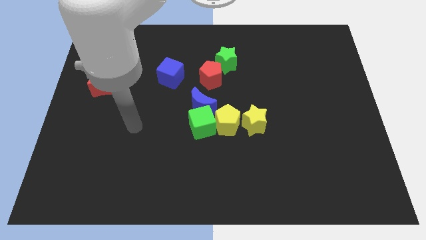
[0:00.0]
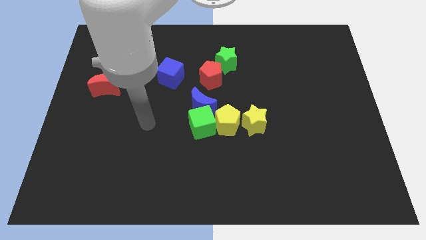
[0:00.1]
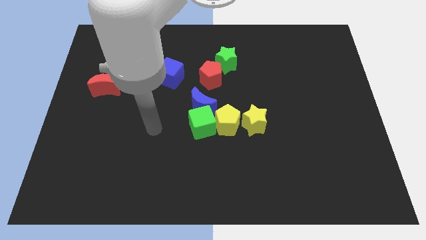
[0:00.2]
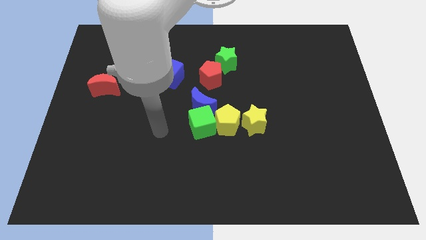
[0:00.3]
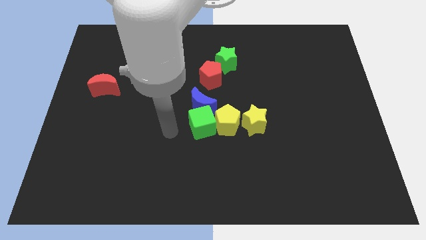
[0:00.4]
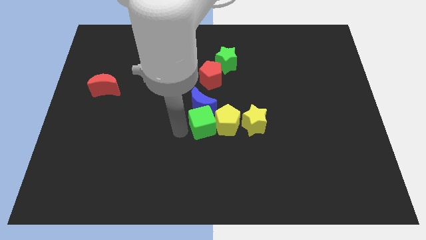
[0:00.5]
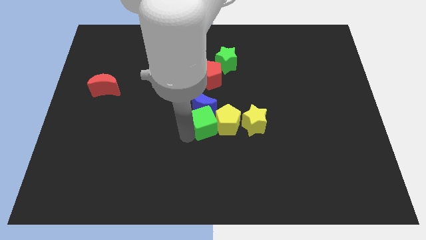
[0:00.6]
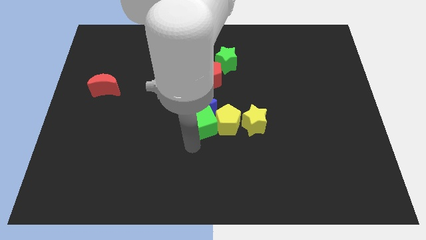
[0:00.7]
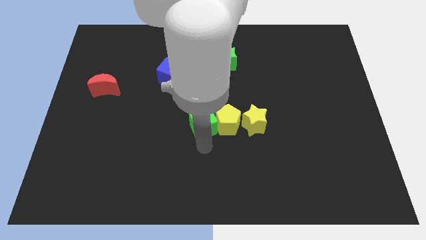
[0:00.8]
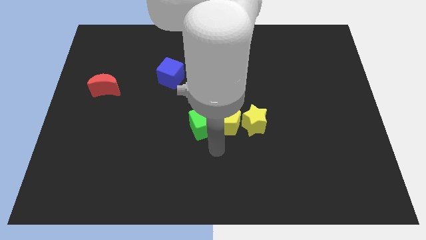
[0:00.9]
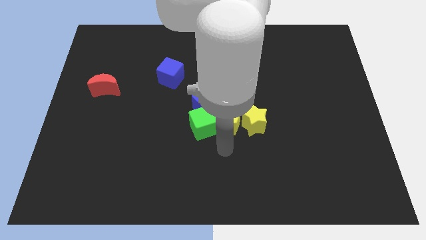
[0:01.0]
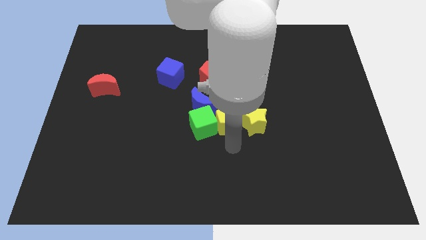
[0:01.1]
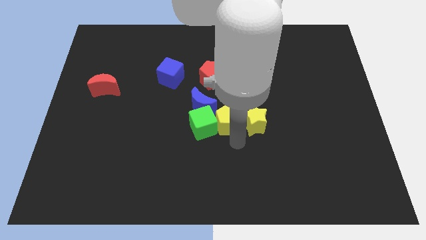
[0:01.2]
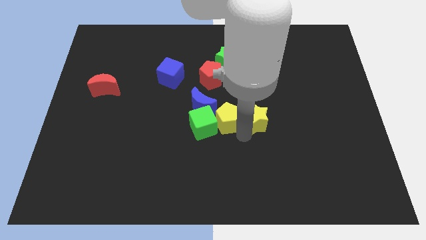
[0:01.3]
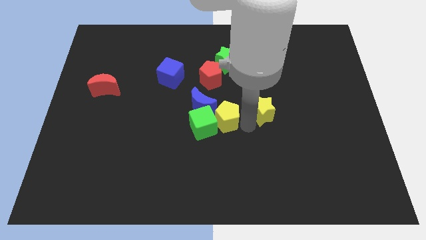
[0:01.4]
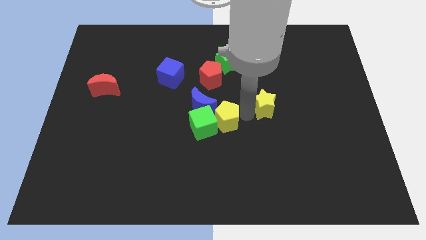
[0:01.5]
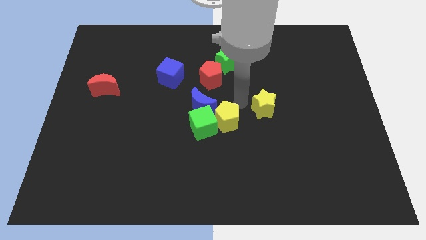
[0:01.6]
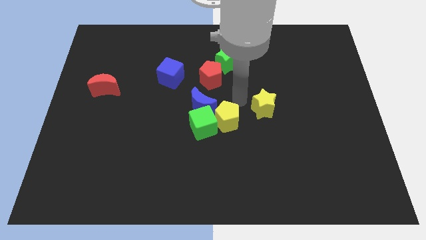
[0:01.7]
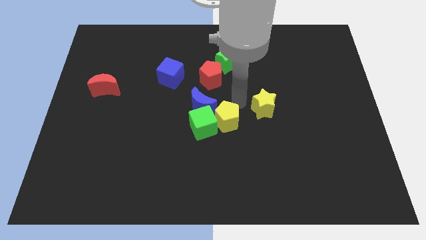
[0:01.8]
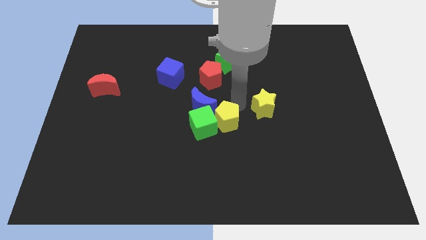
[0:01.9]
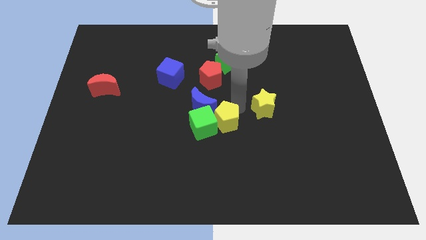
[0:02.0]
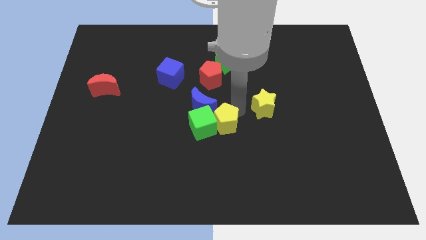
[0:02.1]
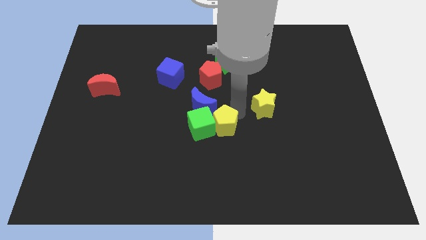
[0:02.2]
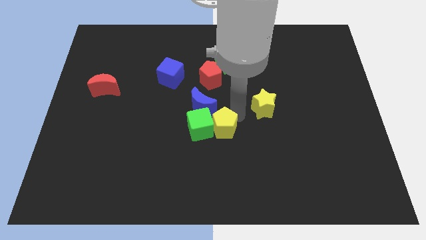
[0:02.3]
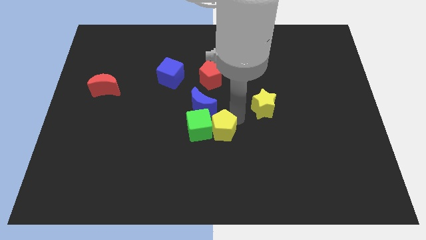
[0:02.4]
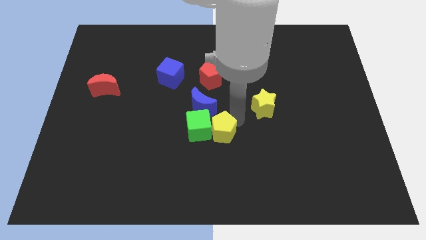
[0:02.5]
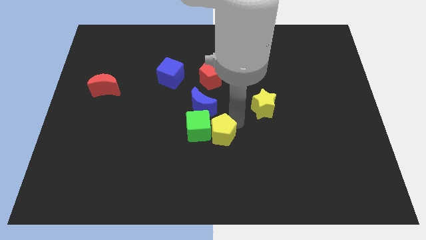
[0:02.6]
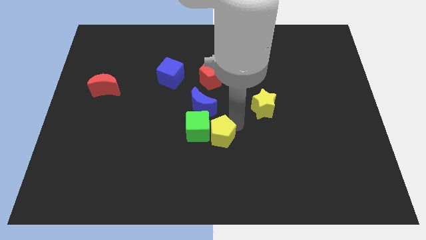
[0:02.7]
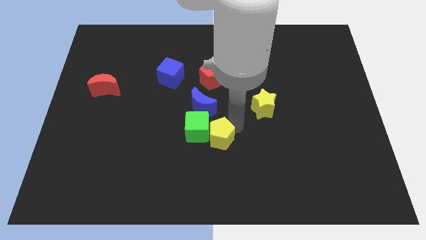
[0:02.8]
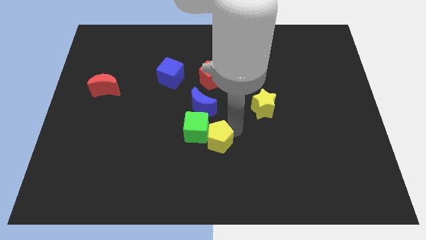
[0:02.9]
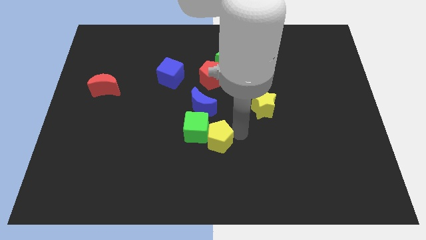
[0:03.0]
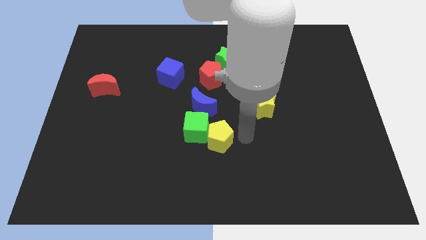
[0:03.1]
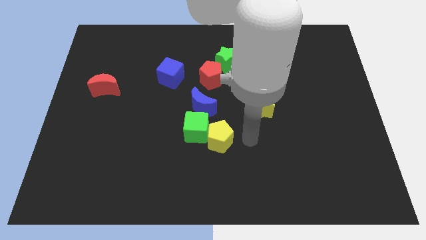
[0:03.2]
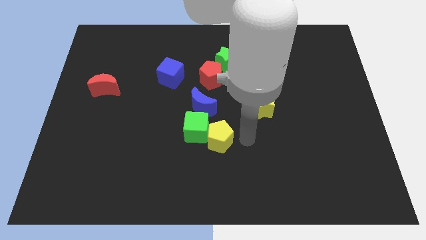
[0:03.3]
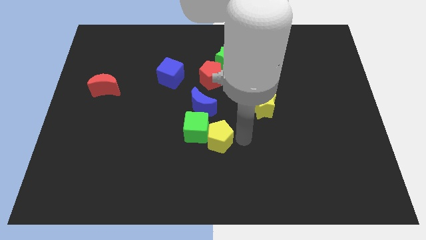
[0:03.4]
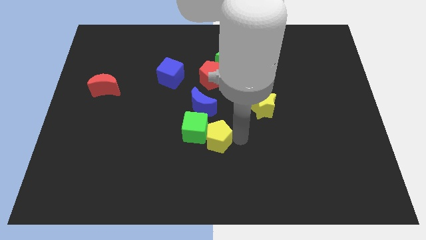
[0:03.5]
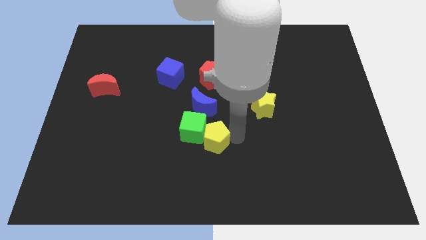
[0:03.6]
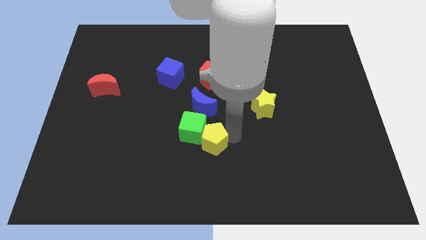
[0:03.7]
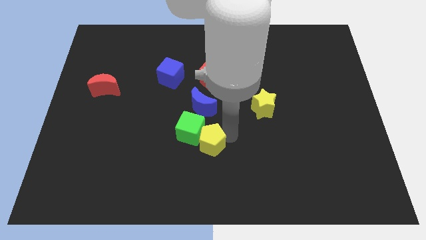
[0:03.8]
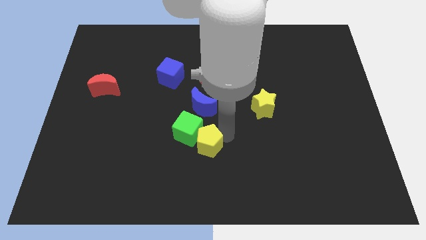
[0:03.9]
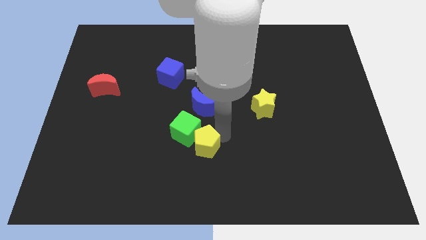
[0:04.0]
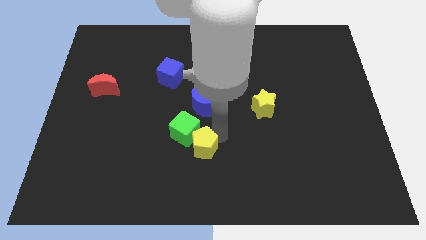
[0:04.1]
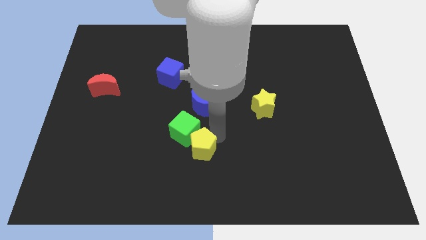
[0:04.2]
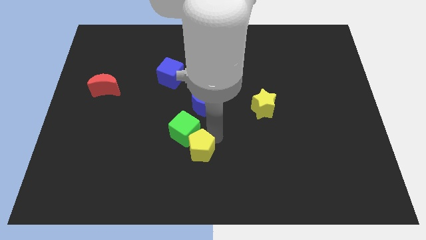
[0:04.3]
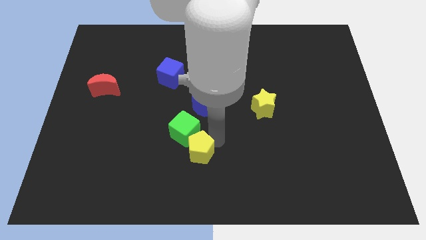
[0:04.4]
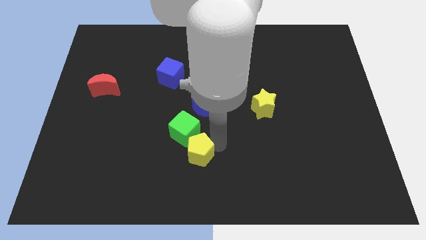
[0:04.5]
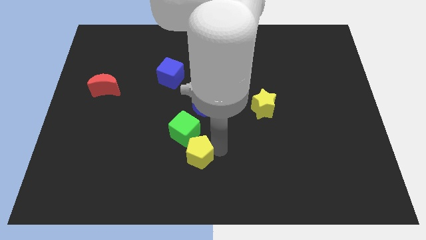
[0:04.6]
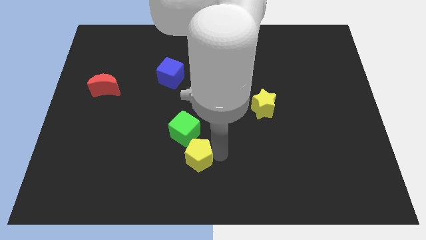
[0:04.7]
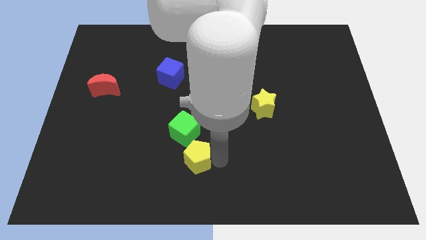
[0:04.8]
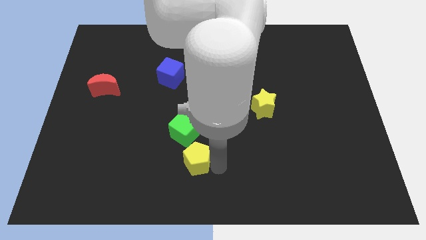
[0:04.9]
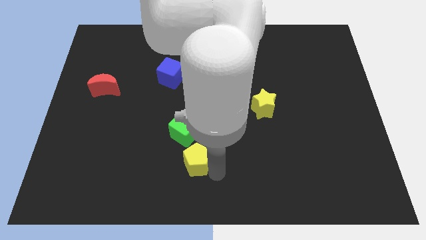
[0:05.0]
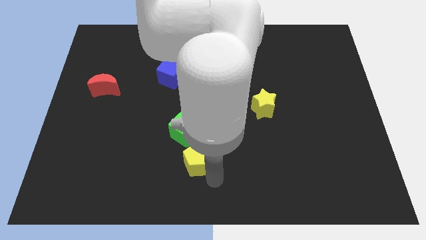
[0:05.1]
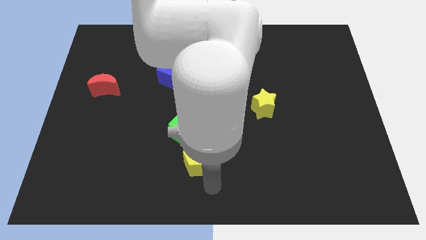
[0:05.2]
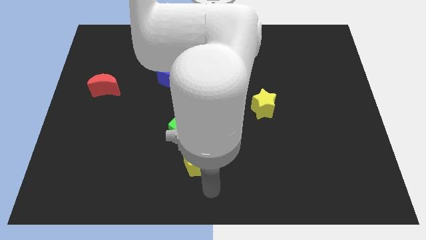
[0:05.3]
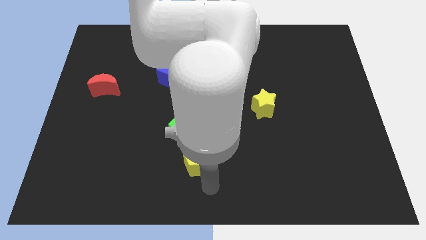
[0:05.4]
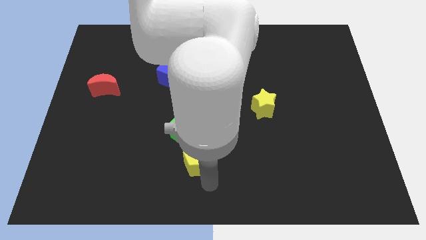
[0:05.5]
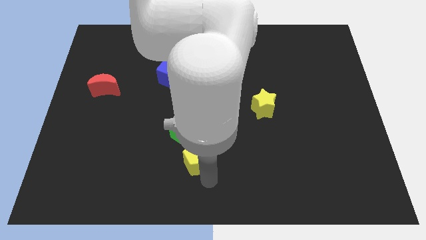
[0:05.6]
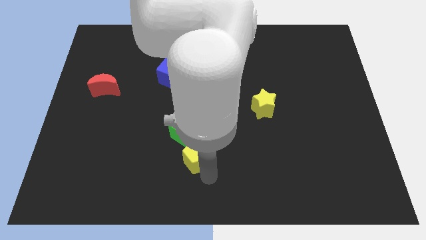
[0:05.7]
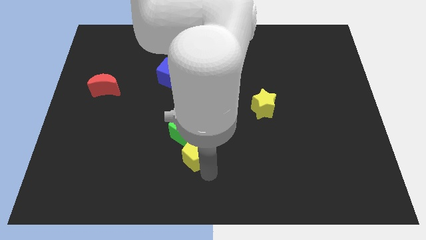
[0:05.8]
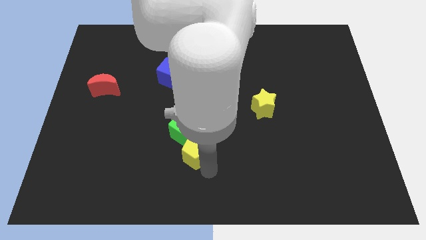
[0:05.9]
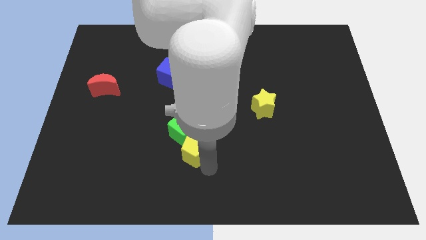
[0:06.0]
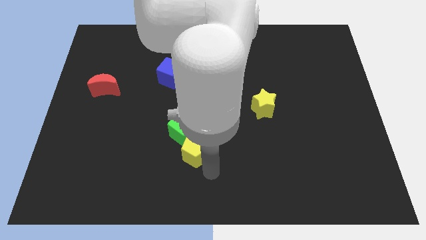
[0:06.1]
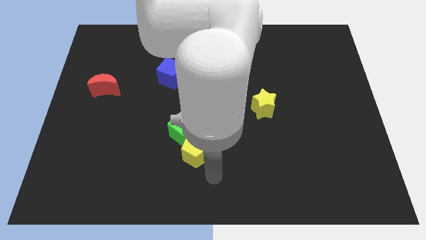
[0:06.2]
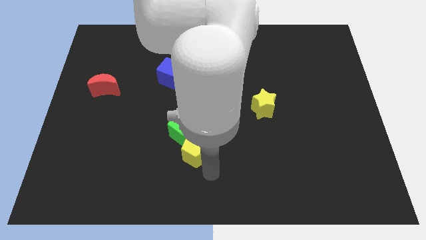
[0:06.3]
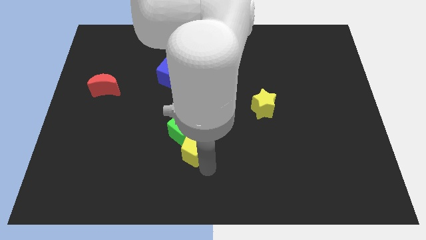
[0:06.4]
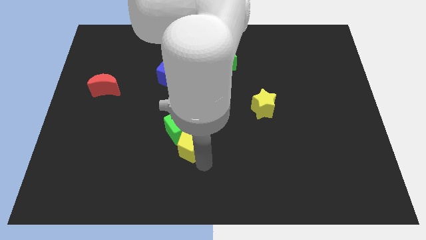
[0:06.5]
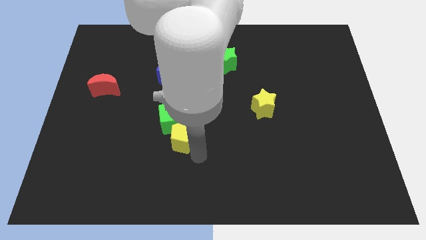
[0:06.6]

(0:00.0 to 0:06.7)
push the yellow pentagon to the left a little

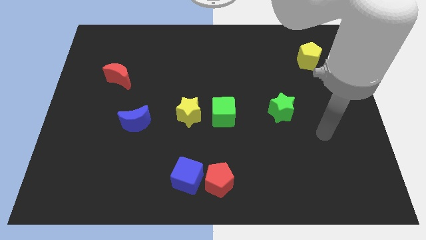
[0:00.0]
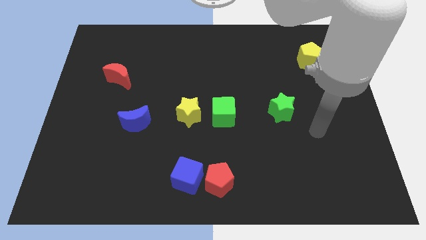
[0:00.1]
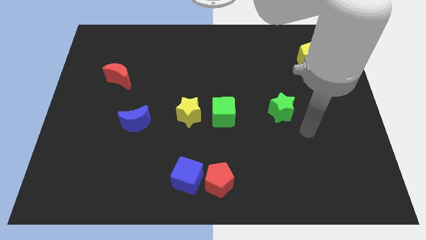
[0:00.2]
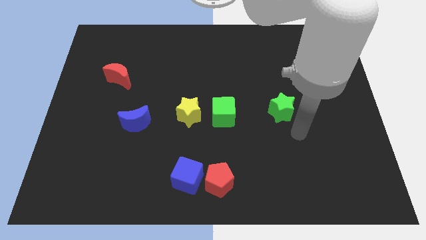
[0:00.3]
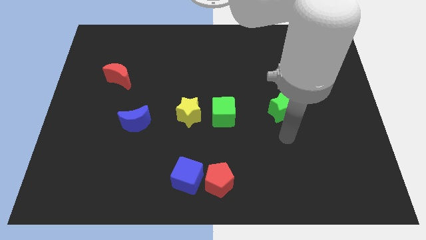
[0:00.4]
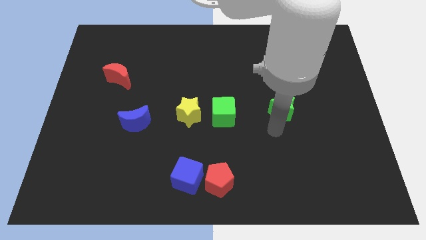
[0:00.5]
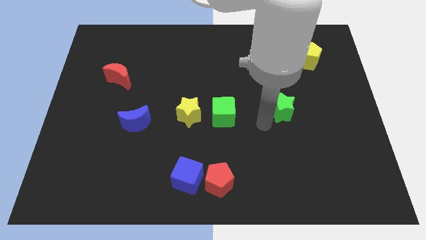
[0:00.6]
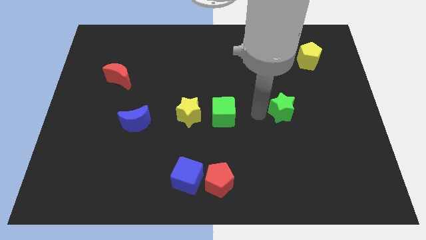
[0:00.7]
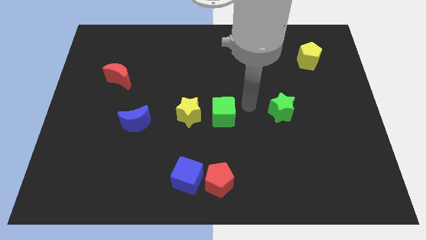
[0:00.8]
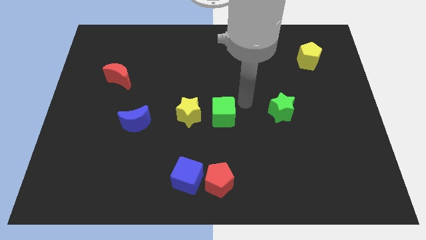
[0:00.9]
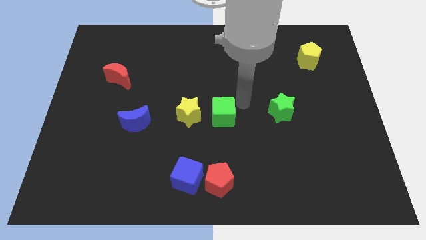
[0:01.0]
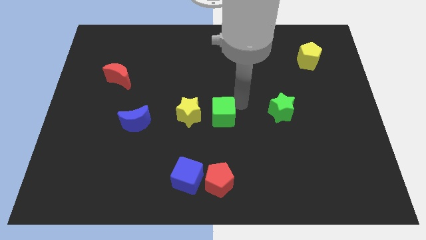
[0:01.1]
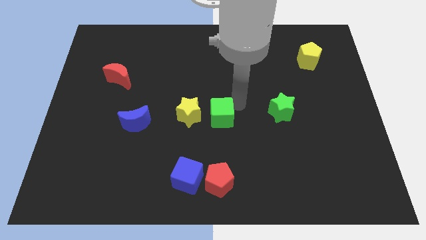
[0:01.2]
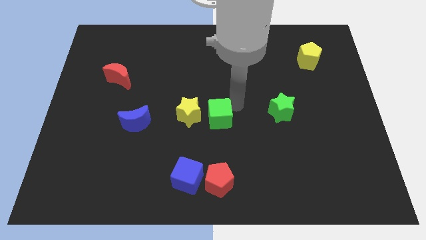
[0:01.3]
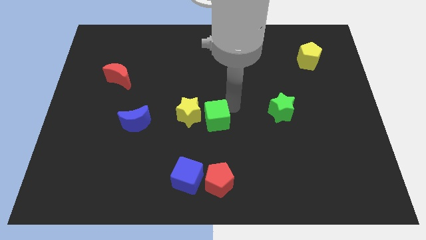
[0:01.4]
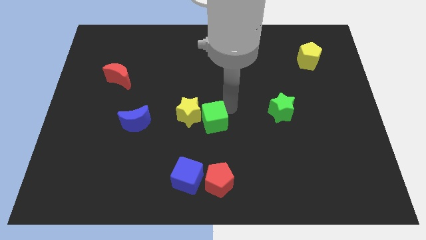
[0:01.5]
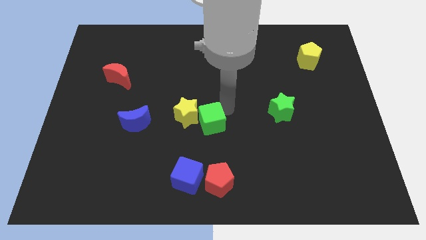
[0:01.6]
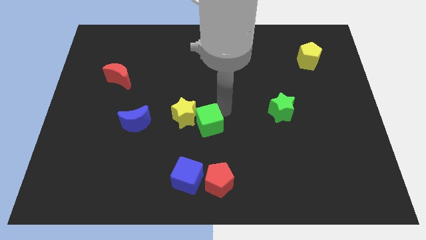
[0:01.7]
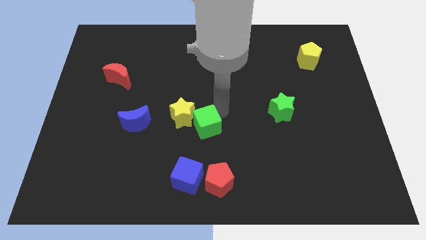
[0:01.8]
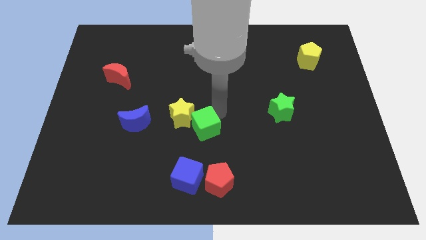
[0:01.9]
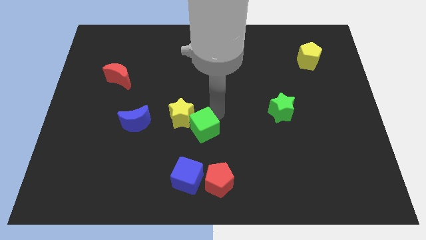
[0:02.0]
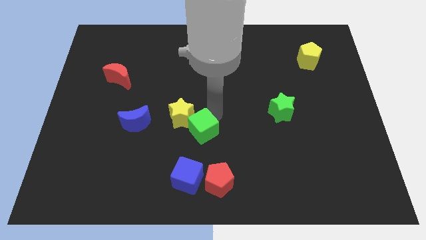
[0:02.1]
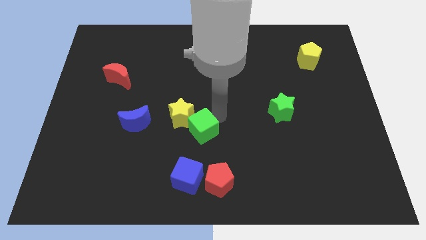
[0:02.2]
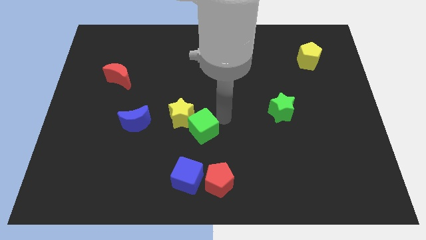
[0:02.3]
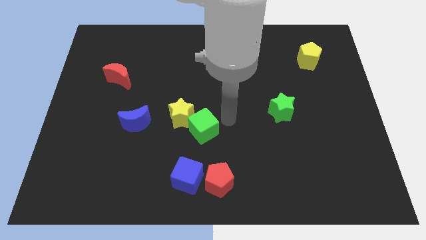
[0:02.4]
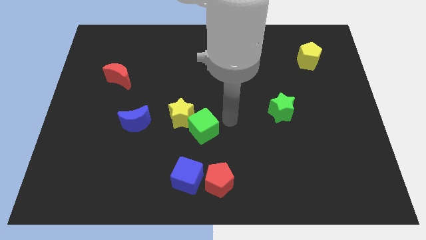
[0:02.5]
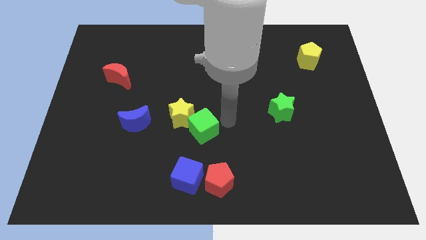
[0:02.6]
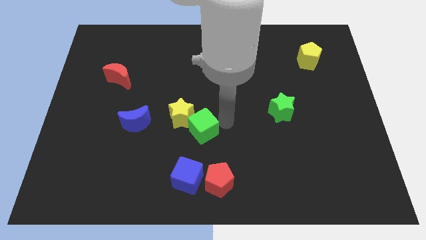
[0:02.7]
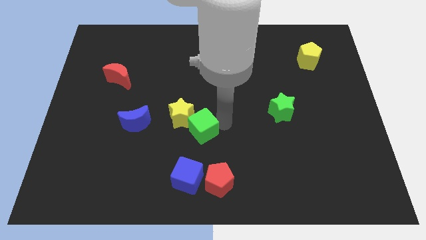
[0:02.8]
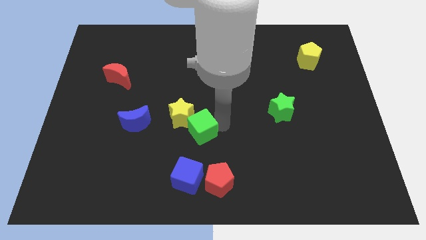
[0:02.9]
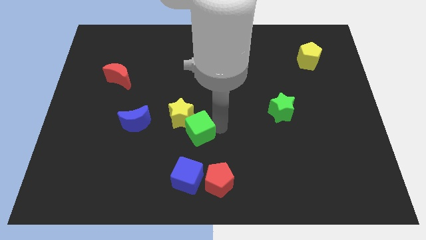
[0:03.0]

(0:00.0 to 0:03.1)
move the green cube slightly down and then left
